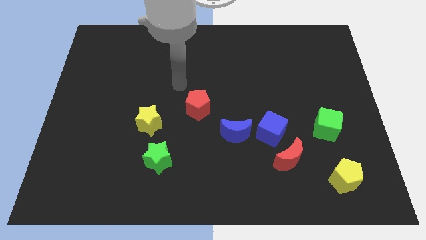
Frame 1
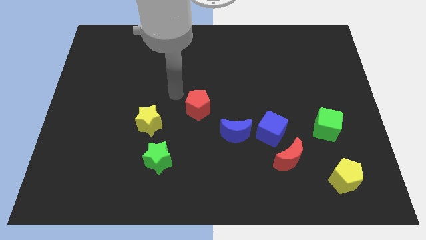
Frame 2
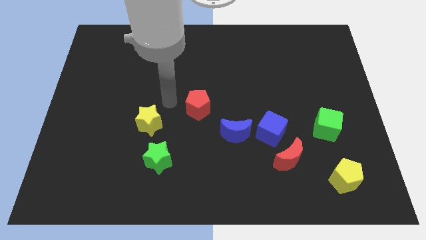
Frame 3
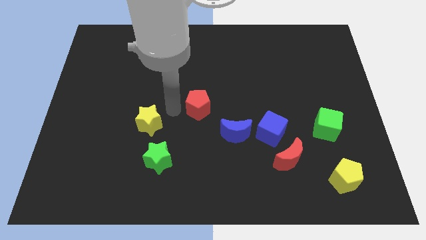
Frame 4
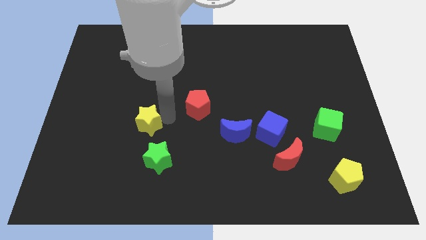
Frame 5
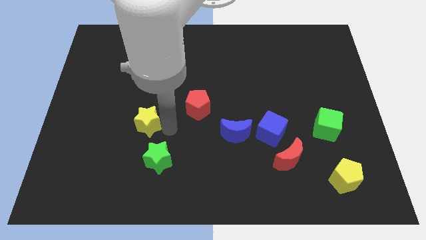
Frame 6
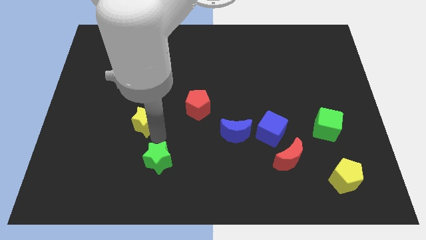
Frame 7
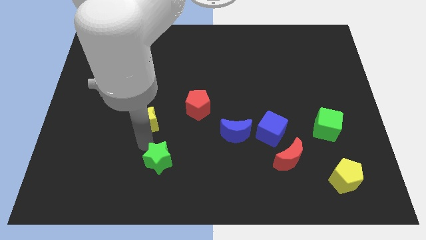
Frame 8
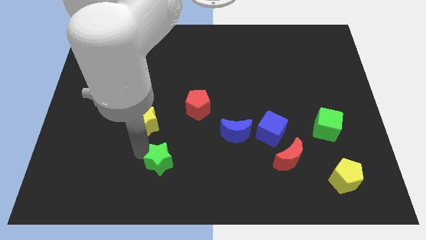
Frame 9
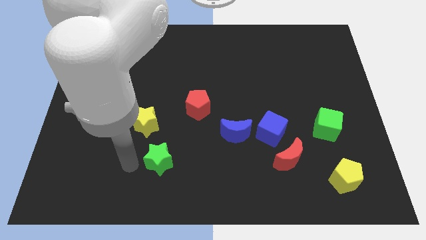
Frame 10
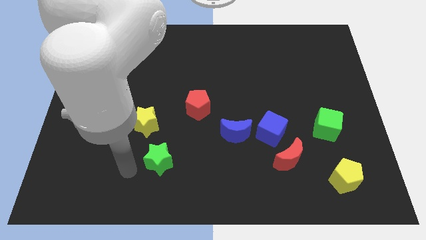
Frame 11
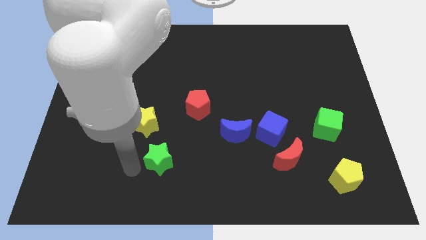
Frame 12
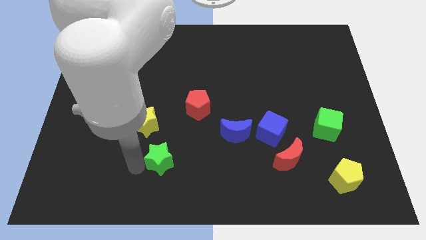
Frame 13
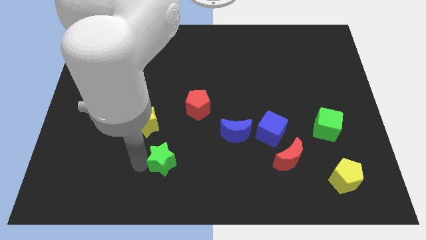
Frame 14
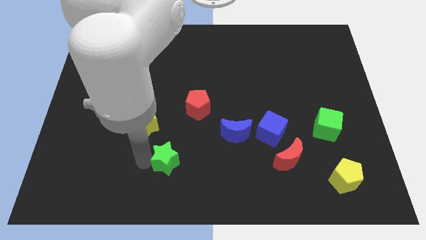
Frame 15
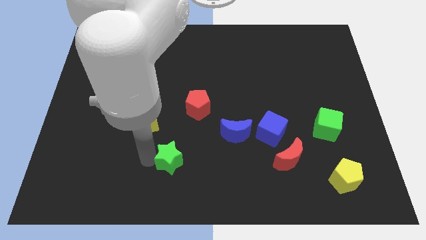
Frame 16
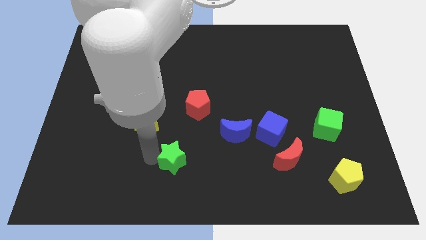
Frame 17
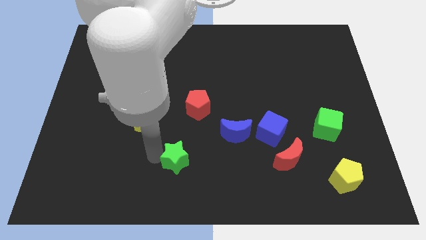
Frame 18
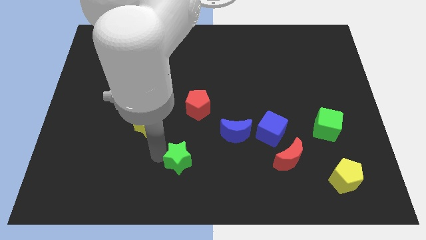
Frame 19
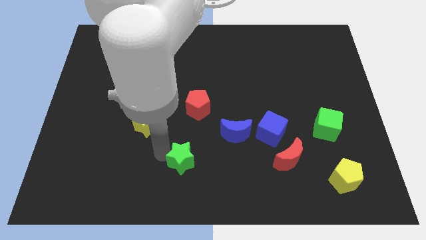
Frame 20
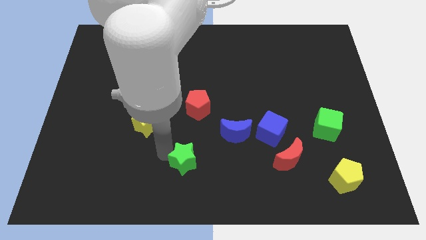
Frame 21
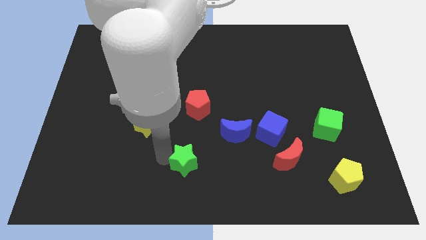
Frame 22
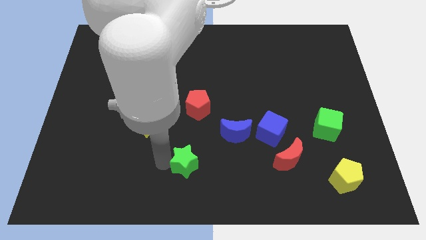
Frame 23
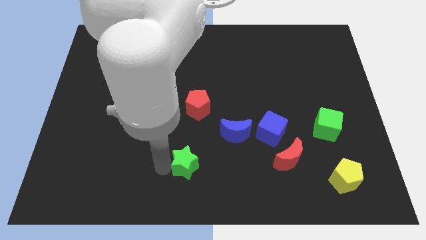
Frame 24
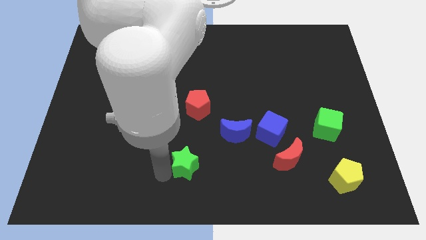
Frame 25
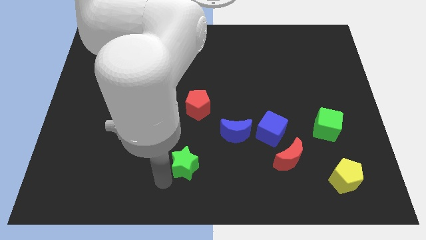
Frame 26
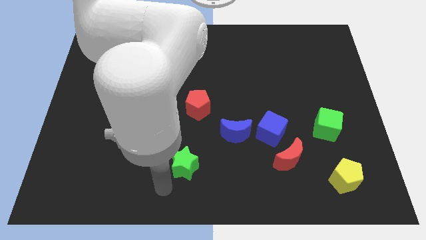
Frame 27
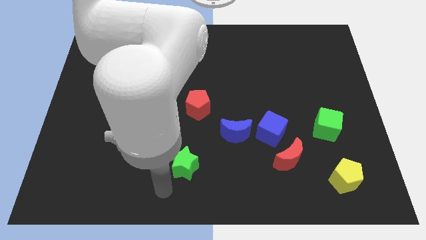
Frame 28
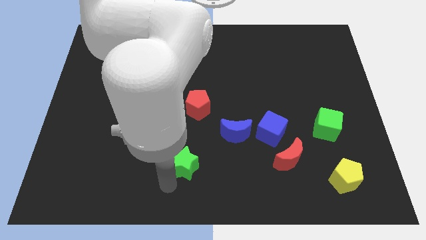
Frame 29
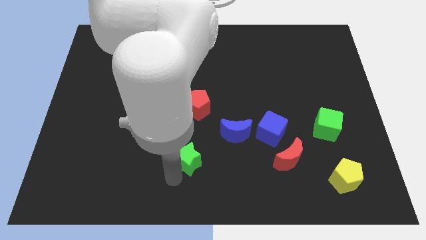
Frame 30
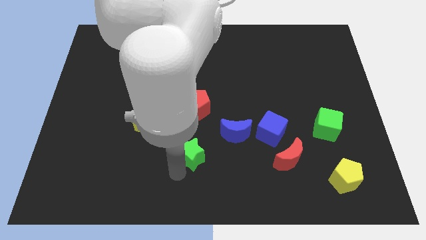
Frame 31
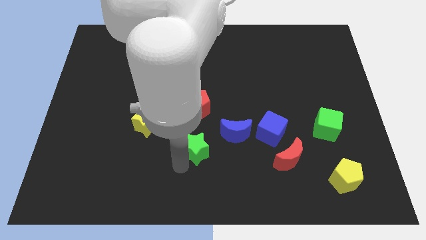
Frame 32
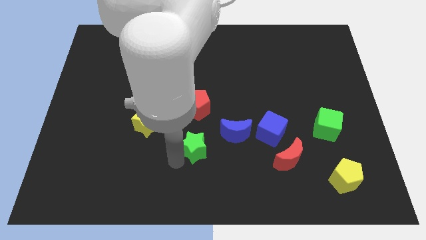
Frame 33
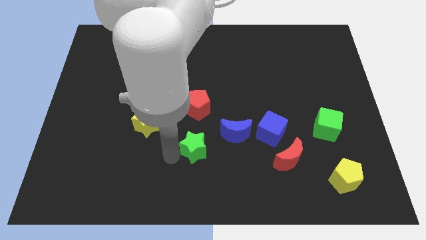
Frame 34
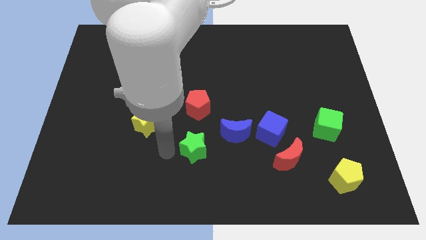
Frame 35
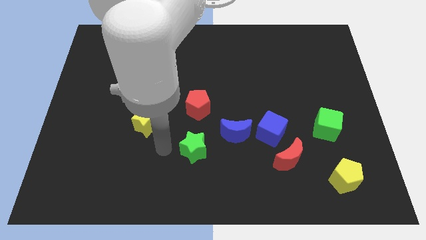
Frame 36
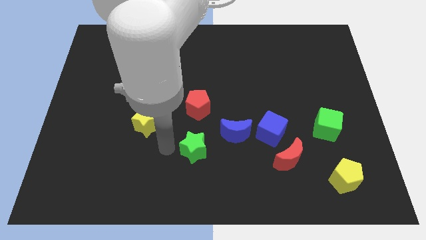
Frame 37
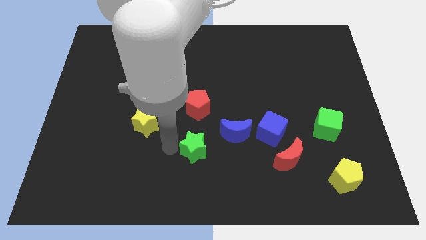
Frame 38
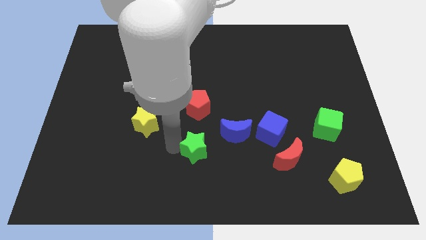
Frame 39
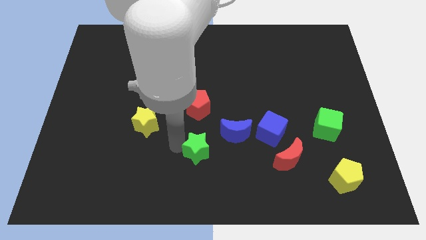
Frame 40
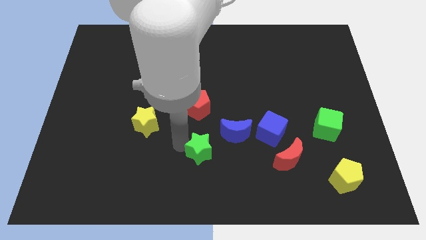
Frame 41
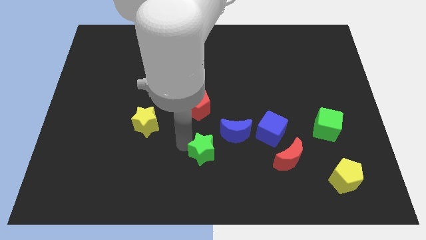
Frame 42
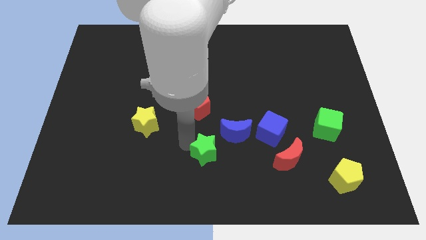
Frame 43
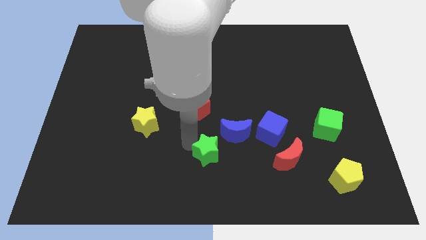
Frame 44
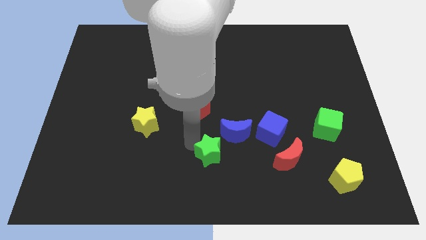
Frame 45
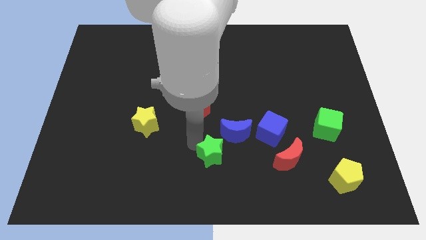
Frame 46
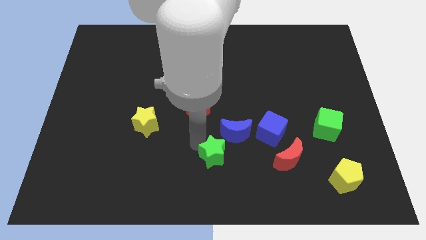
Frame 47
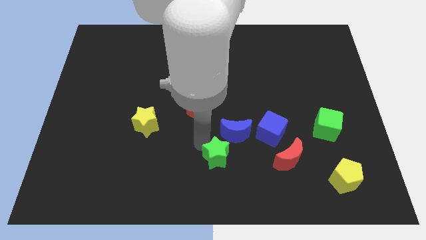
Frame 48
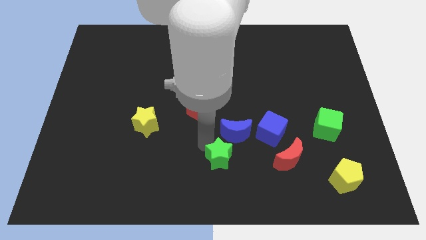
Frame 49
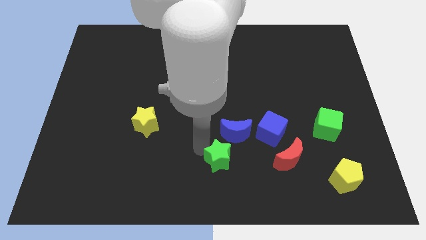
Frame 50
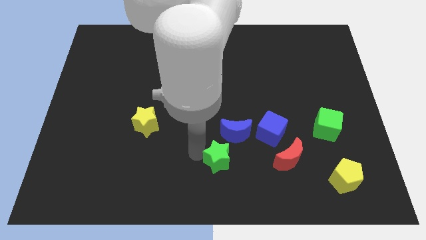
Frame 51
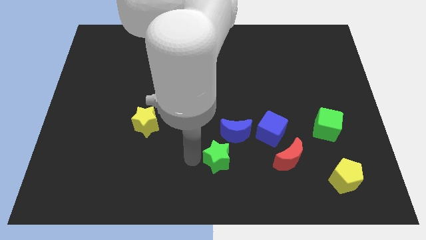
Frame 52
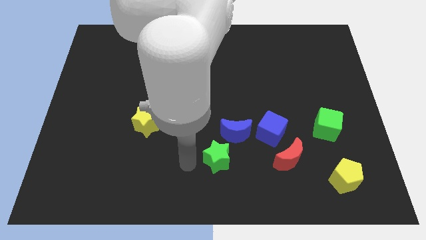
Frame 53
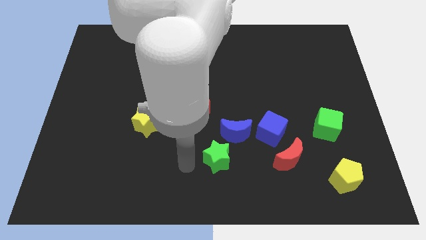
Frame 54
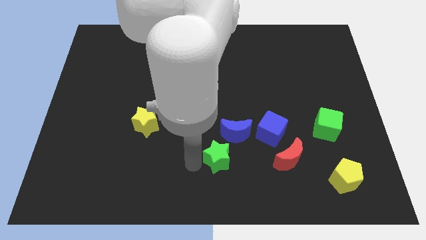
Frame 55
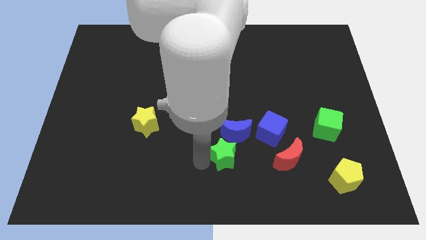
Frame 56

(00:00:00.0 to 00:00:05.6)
put the green star diagonally down and to the left of the blue cube

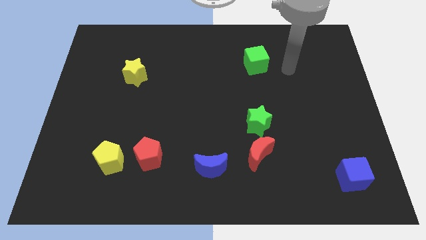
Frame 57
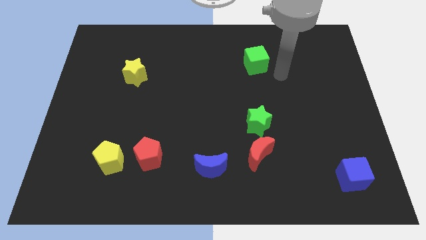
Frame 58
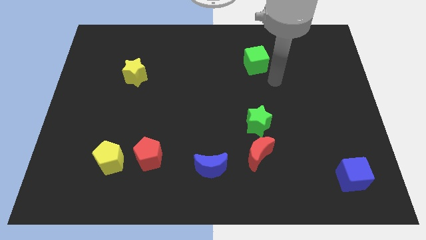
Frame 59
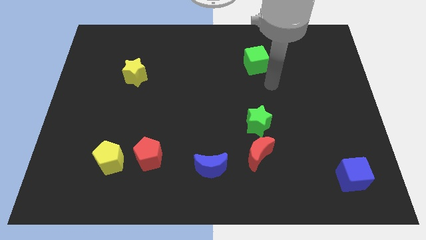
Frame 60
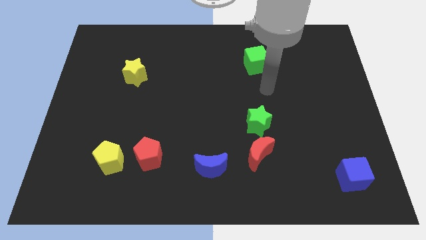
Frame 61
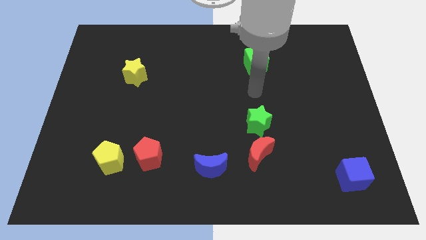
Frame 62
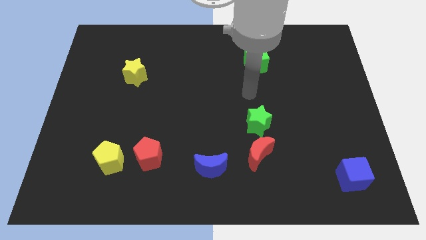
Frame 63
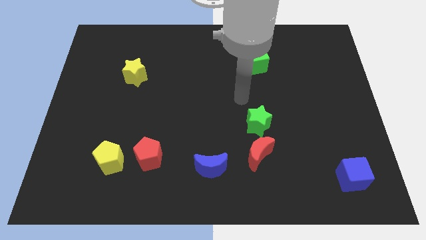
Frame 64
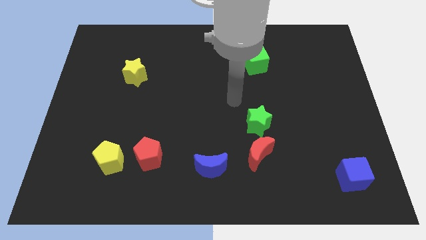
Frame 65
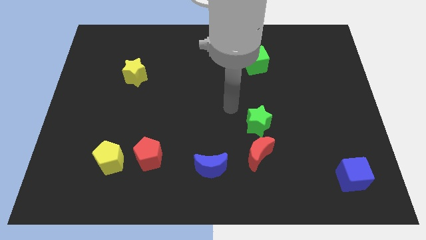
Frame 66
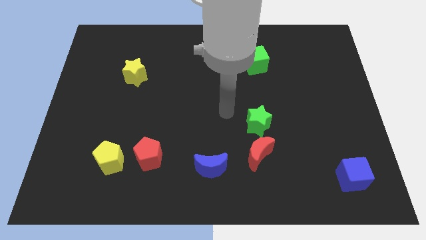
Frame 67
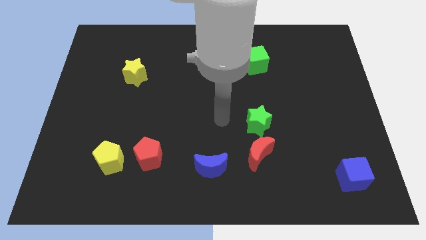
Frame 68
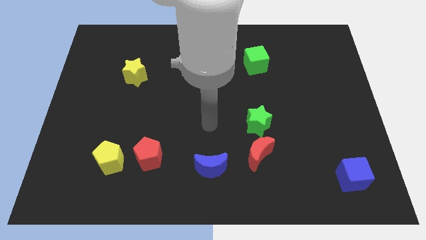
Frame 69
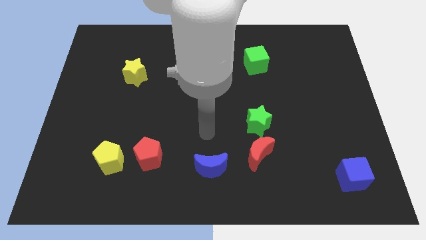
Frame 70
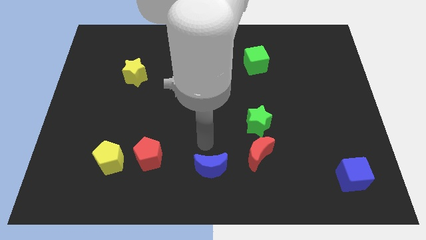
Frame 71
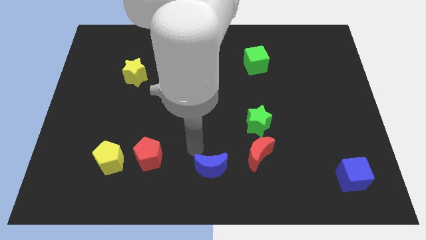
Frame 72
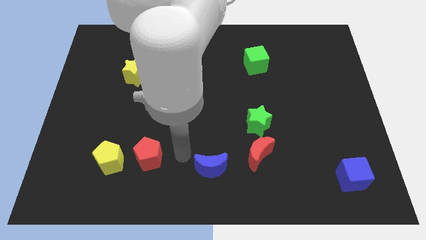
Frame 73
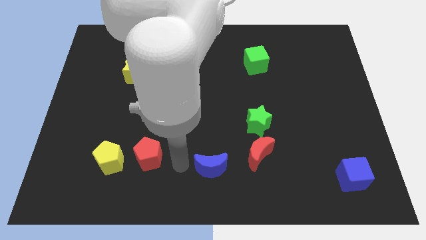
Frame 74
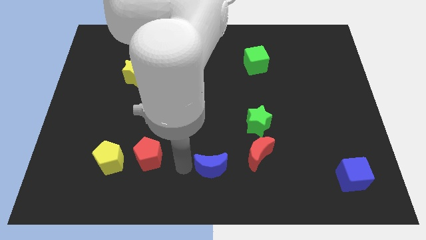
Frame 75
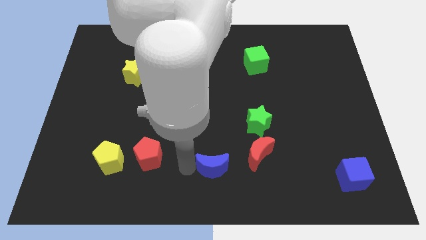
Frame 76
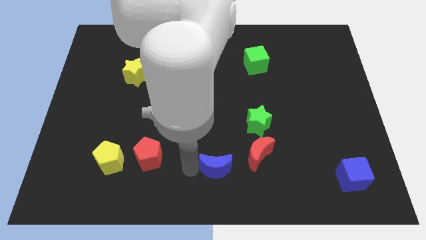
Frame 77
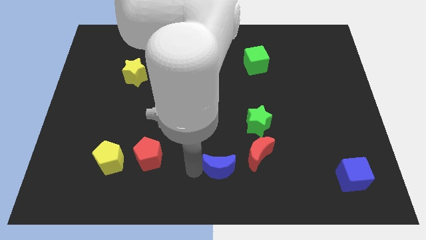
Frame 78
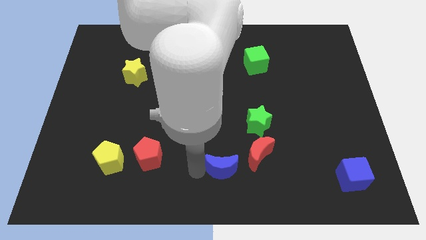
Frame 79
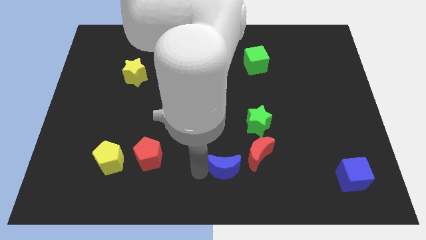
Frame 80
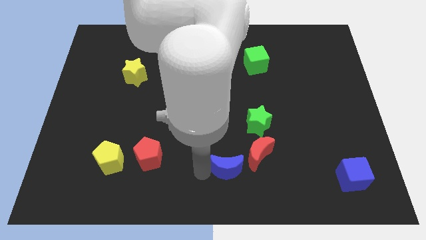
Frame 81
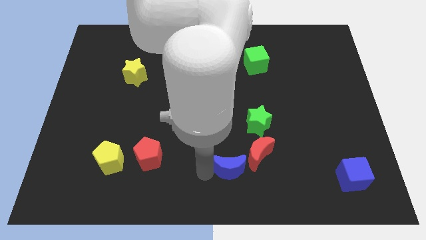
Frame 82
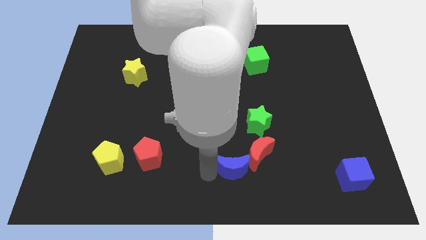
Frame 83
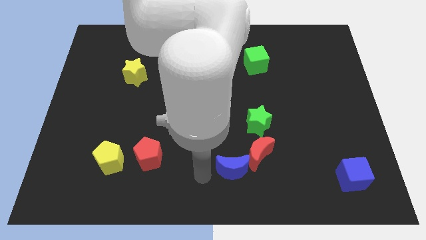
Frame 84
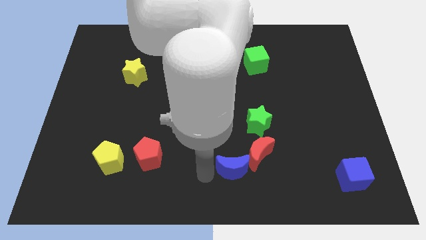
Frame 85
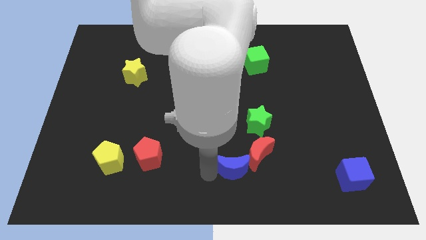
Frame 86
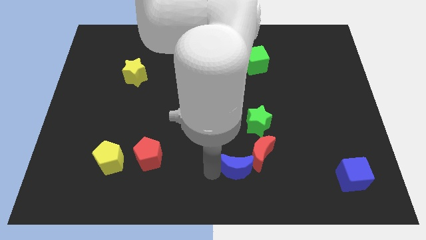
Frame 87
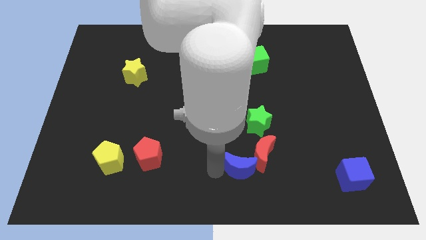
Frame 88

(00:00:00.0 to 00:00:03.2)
slide the blue moon to the bottom of the green star
